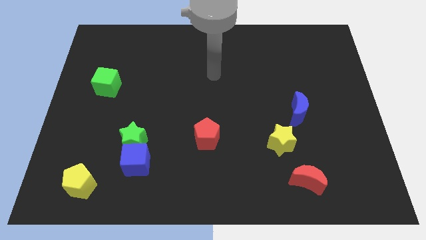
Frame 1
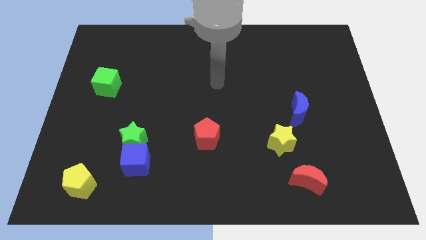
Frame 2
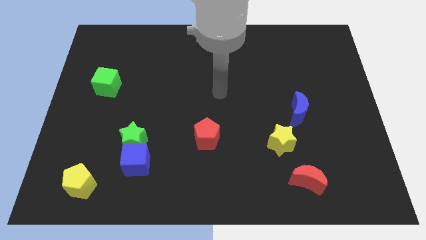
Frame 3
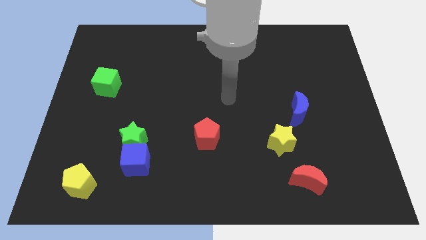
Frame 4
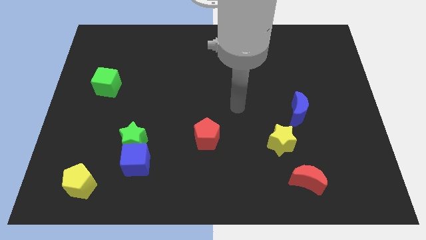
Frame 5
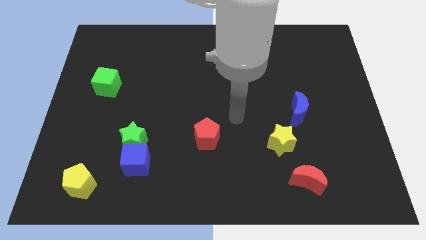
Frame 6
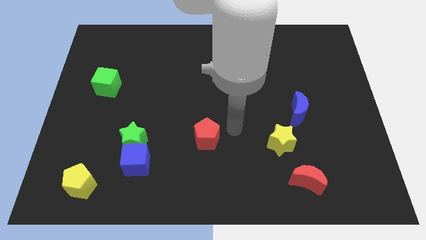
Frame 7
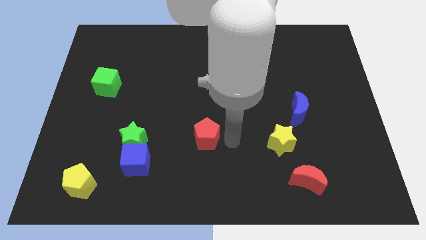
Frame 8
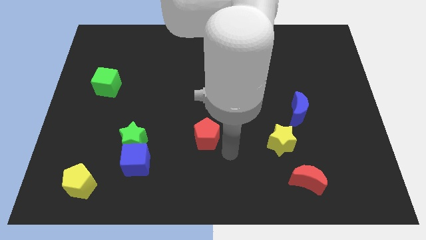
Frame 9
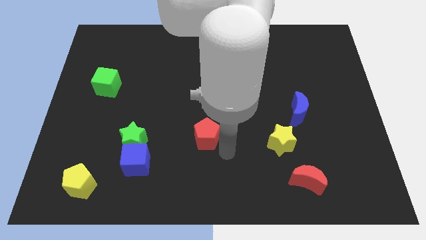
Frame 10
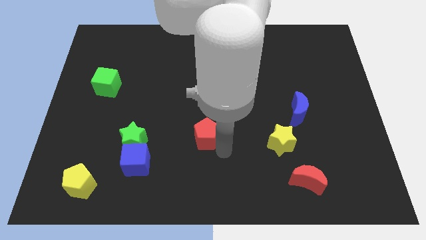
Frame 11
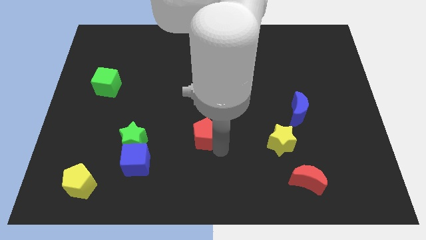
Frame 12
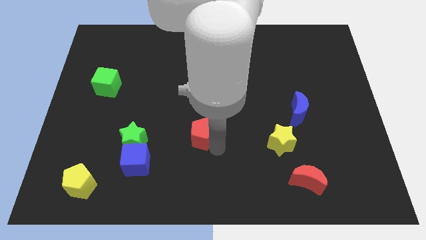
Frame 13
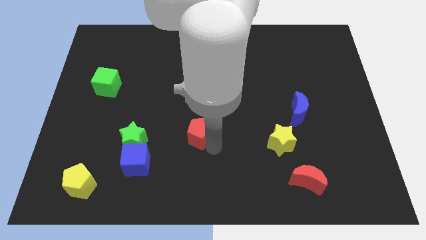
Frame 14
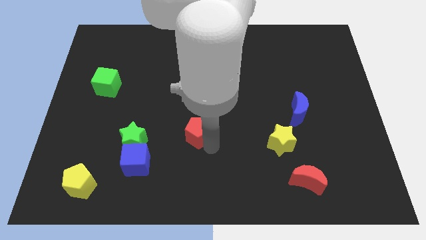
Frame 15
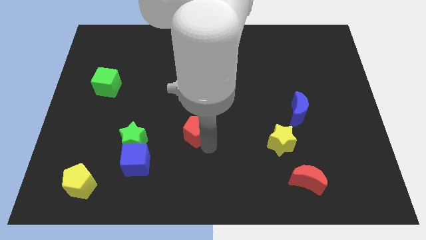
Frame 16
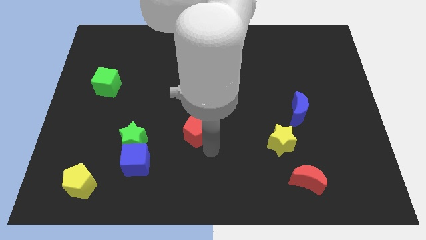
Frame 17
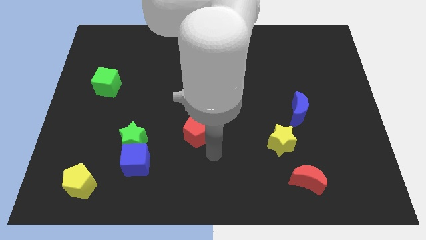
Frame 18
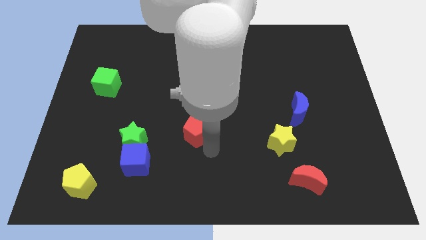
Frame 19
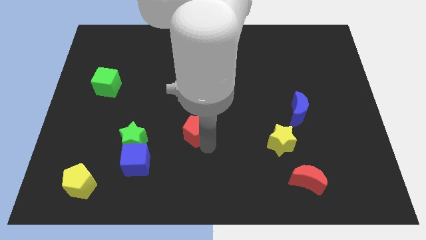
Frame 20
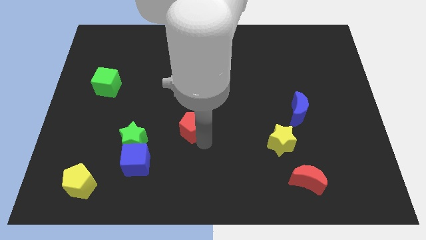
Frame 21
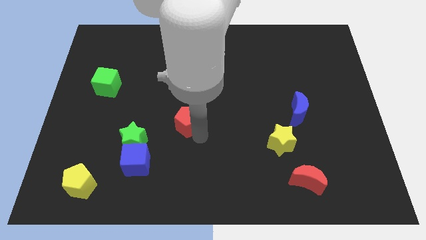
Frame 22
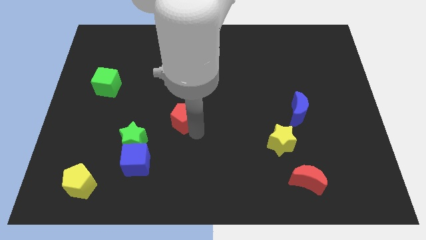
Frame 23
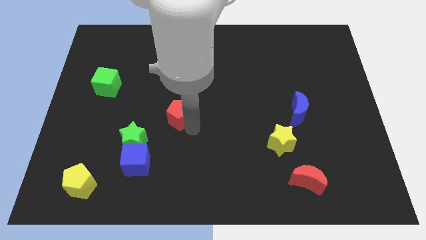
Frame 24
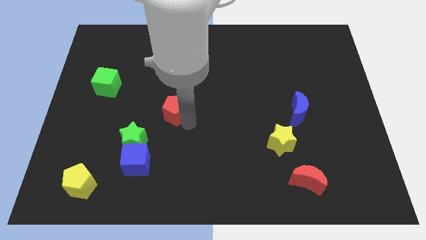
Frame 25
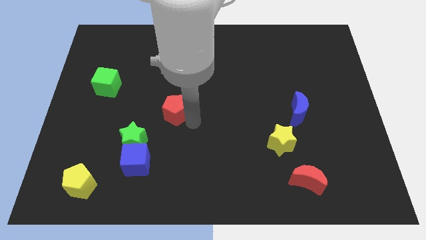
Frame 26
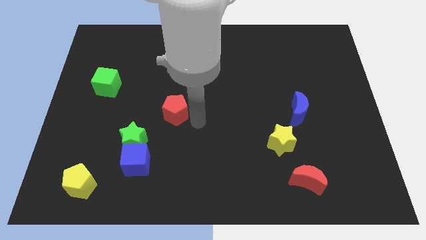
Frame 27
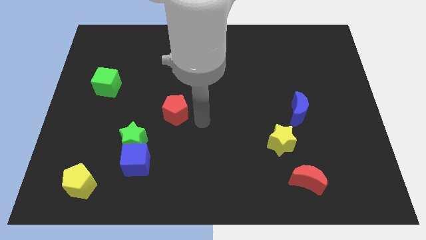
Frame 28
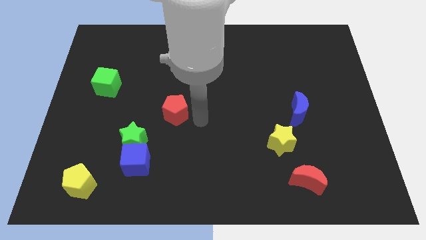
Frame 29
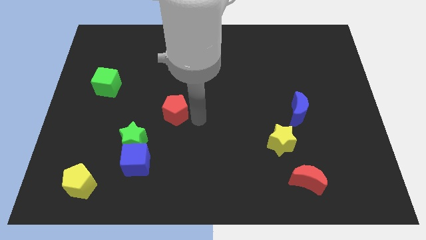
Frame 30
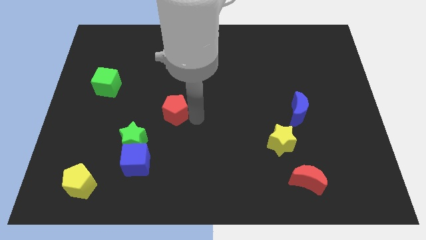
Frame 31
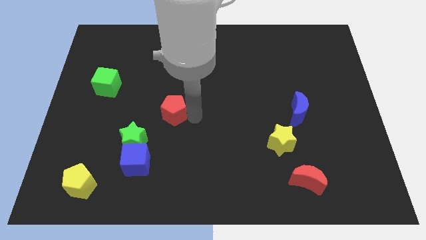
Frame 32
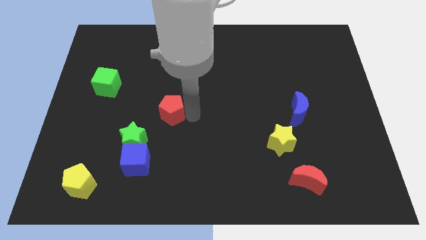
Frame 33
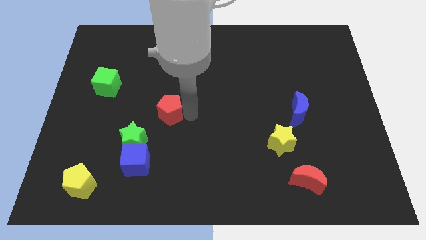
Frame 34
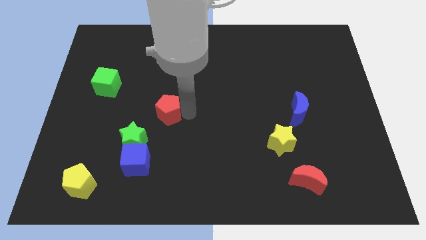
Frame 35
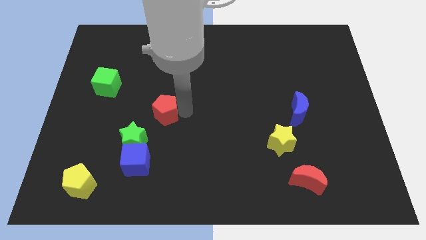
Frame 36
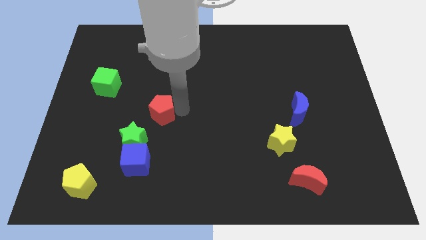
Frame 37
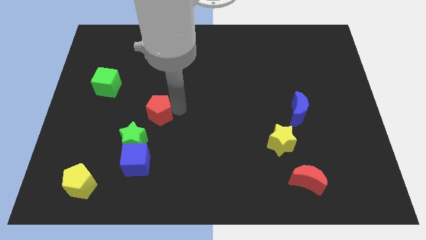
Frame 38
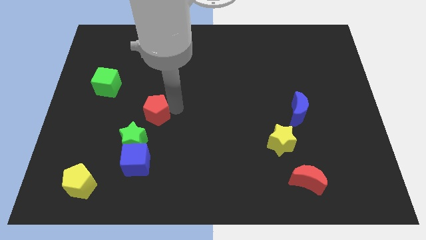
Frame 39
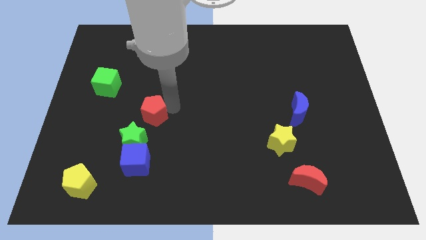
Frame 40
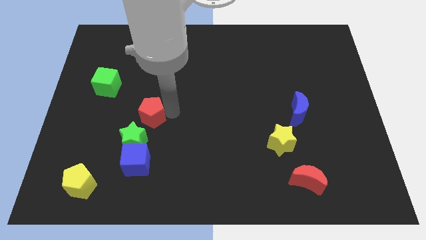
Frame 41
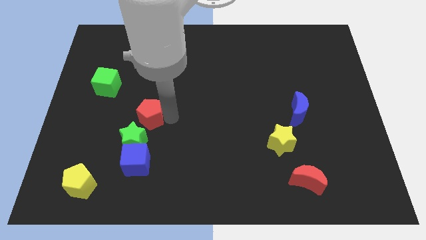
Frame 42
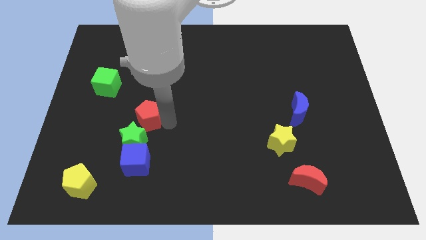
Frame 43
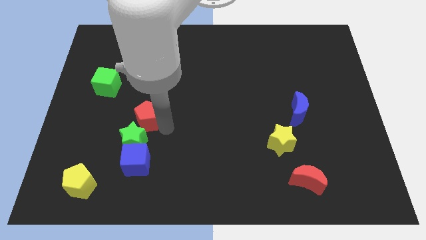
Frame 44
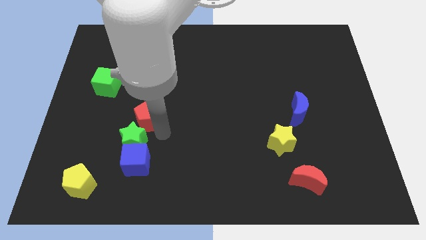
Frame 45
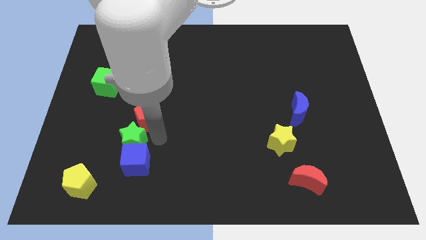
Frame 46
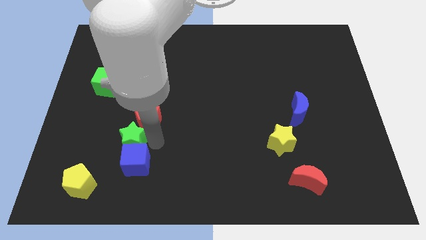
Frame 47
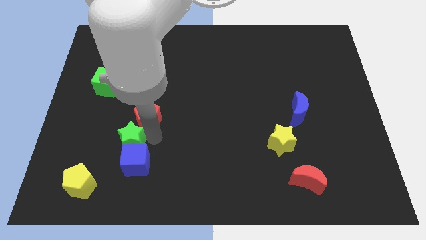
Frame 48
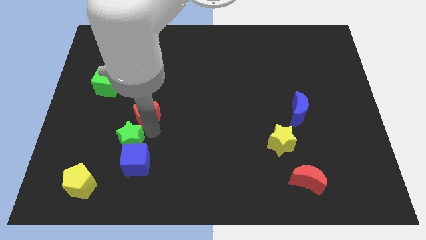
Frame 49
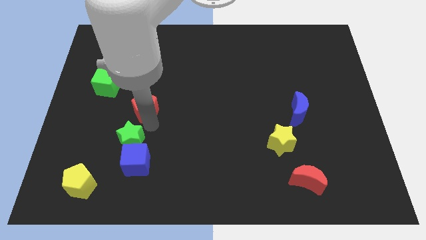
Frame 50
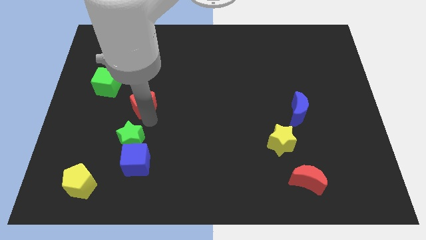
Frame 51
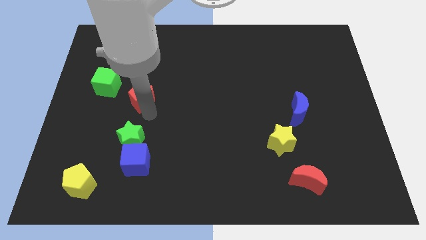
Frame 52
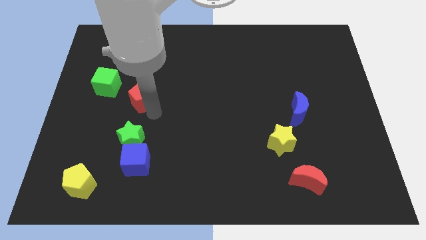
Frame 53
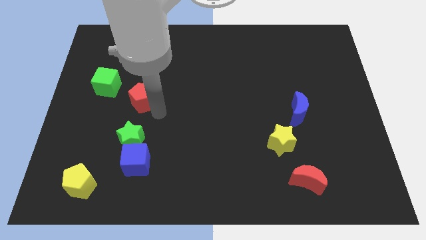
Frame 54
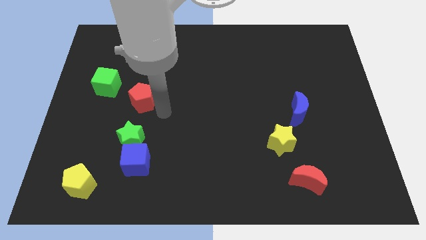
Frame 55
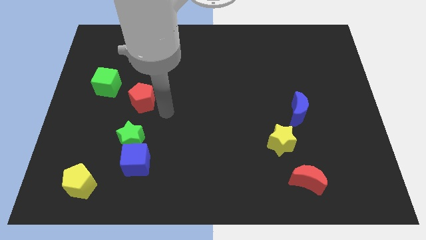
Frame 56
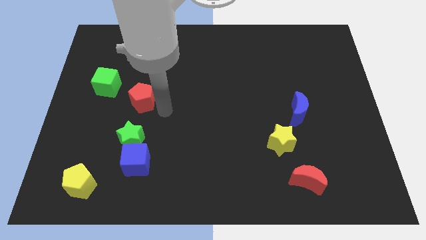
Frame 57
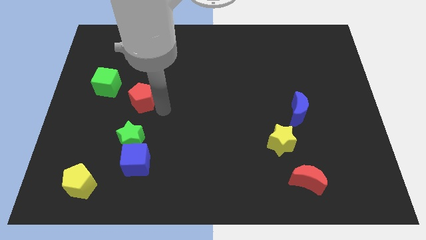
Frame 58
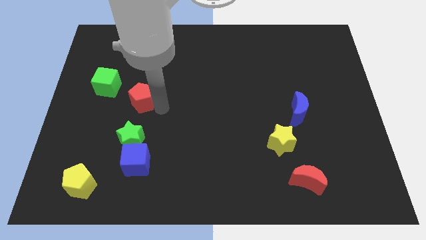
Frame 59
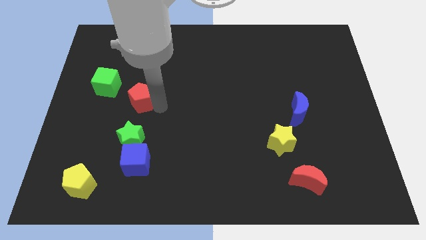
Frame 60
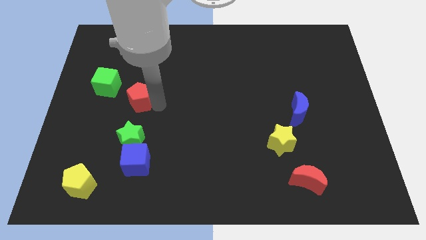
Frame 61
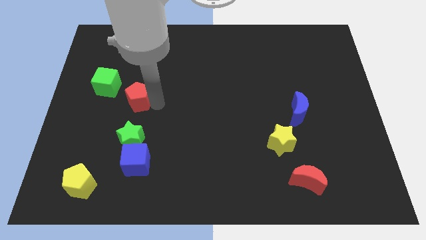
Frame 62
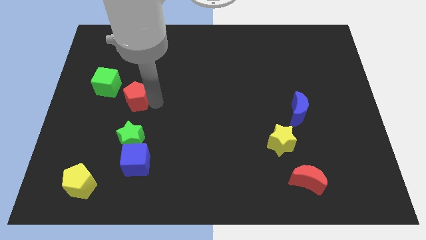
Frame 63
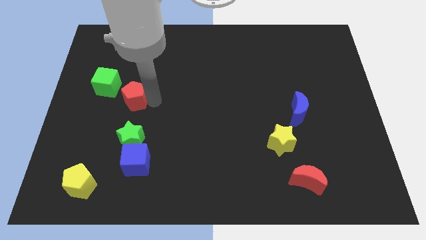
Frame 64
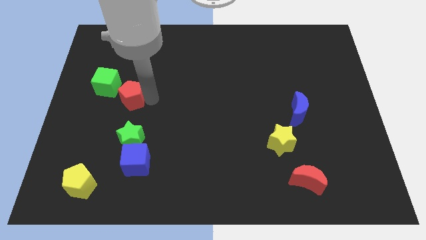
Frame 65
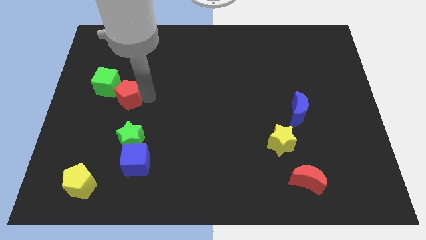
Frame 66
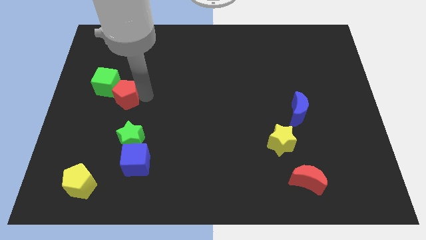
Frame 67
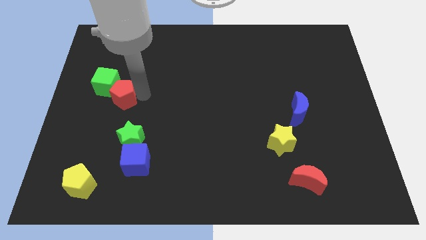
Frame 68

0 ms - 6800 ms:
push the red pentagon close to the green cube
